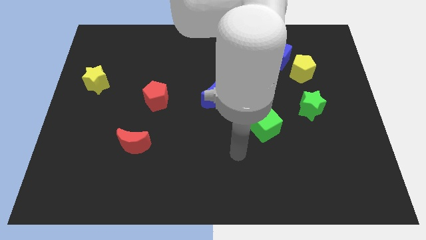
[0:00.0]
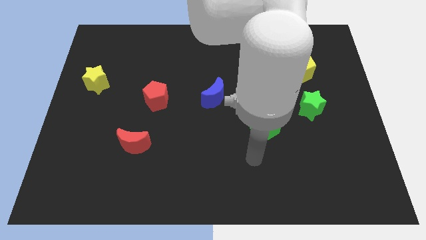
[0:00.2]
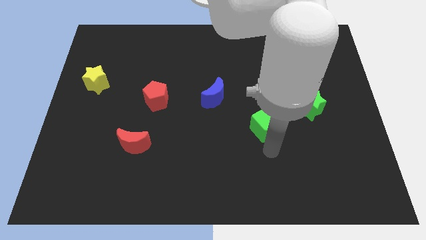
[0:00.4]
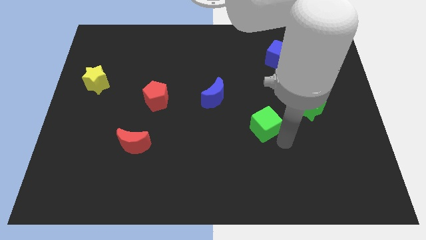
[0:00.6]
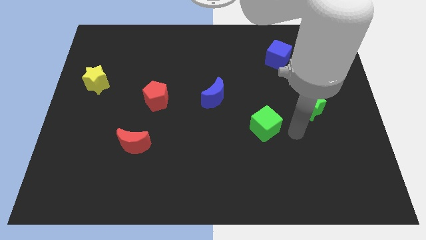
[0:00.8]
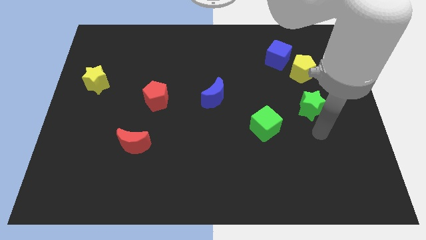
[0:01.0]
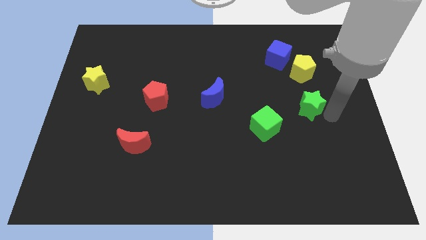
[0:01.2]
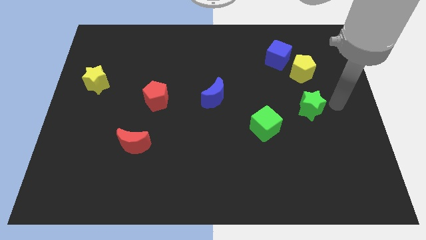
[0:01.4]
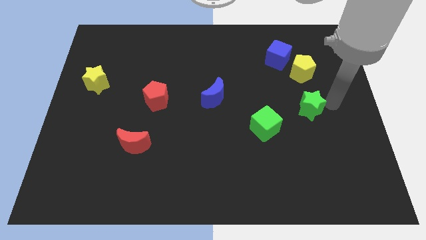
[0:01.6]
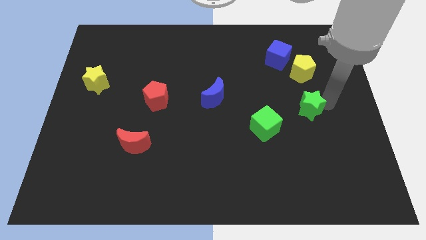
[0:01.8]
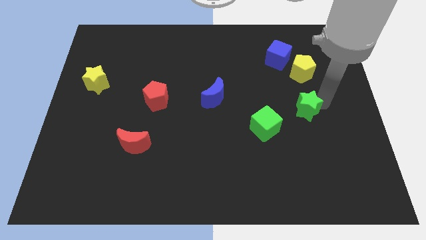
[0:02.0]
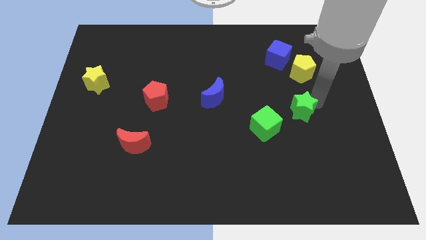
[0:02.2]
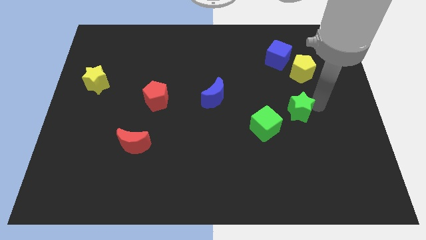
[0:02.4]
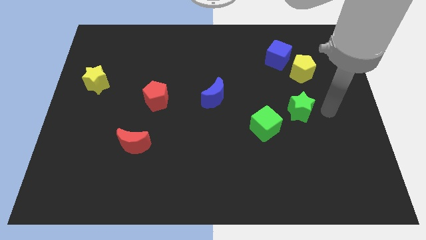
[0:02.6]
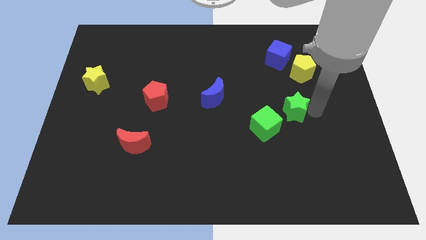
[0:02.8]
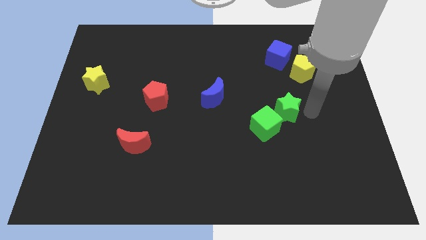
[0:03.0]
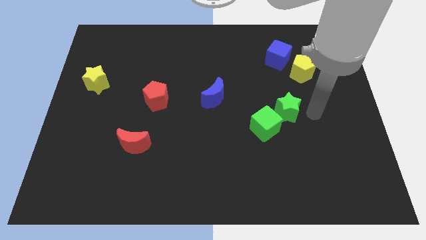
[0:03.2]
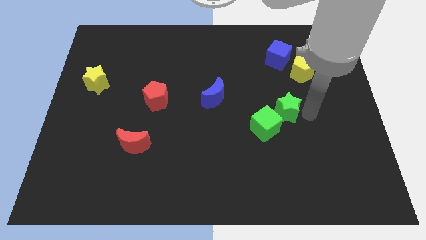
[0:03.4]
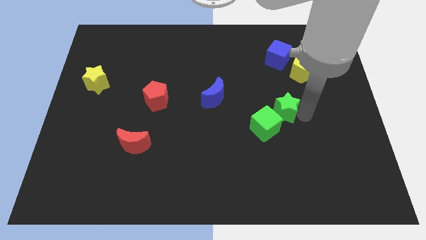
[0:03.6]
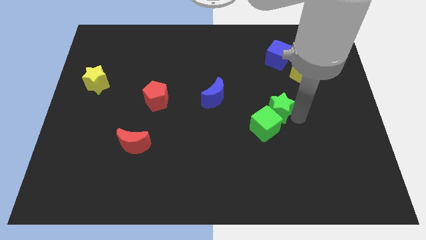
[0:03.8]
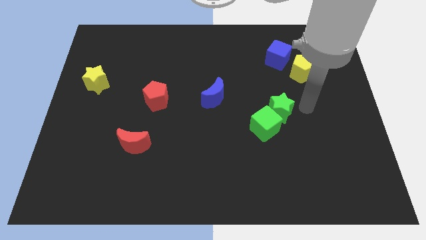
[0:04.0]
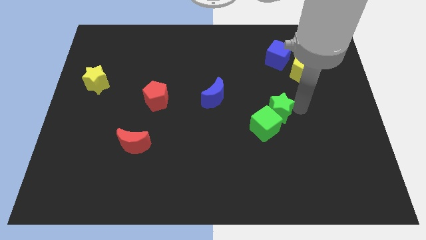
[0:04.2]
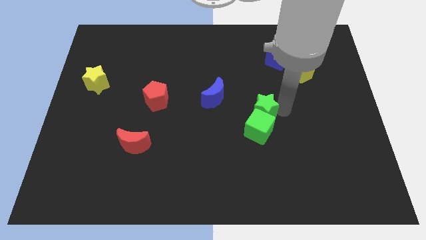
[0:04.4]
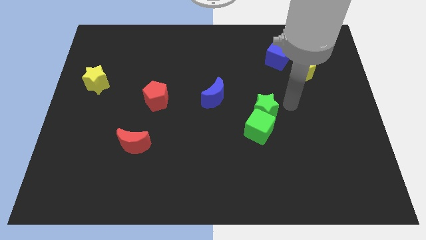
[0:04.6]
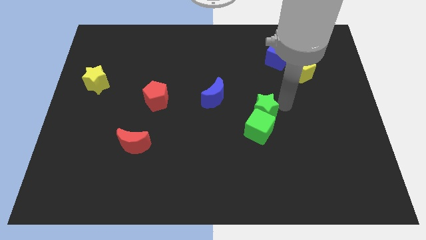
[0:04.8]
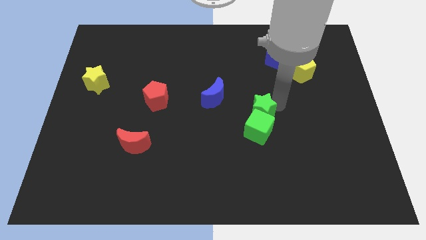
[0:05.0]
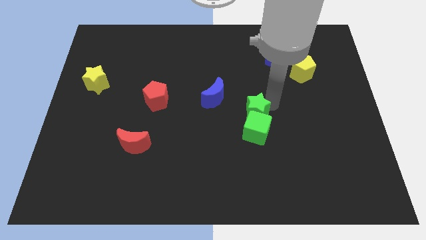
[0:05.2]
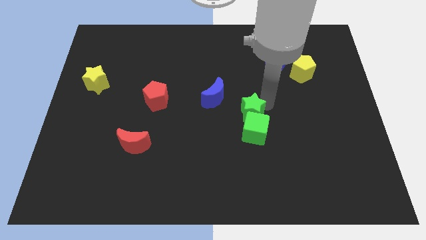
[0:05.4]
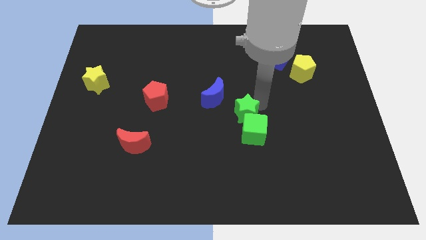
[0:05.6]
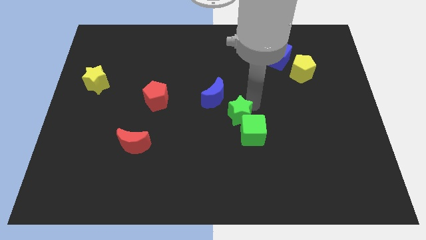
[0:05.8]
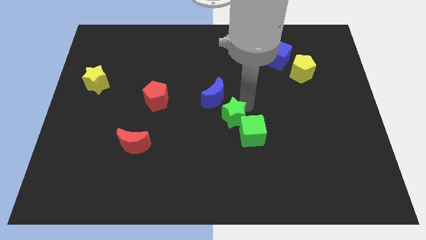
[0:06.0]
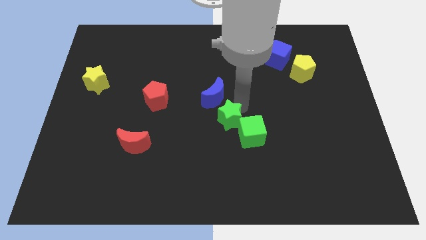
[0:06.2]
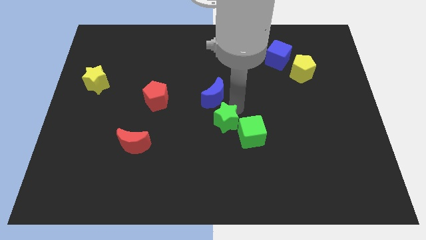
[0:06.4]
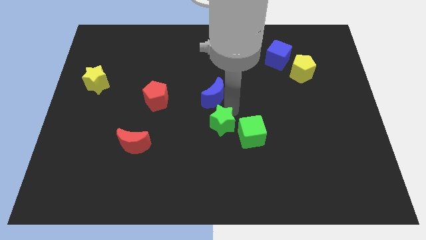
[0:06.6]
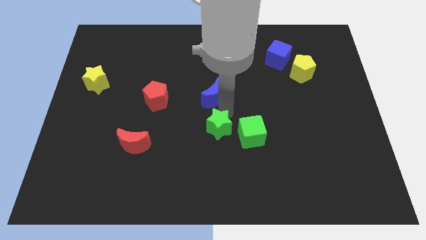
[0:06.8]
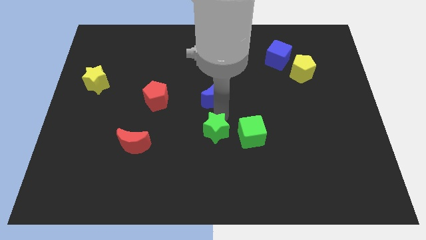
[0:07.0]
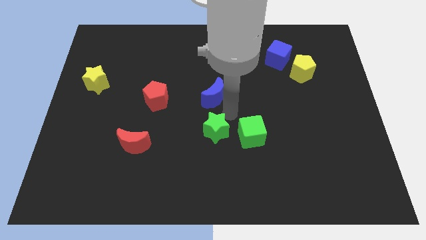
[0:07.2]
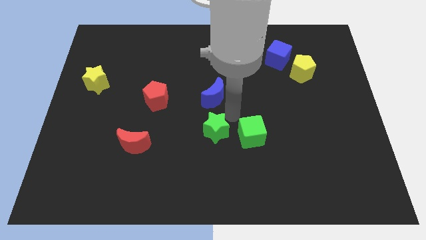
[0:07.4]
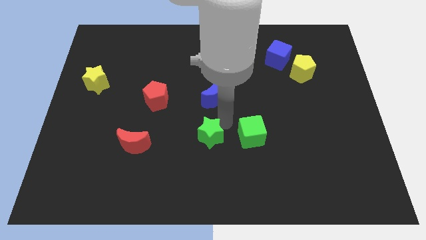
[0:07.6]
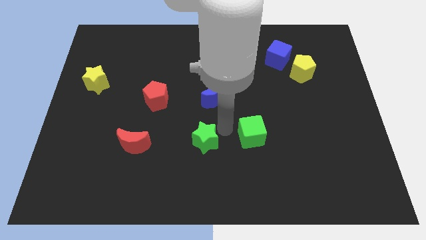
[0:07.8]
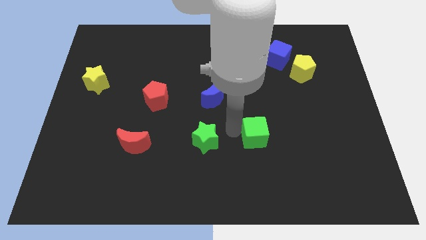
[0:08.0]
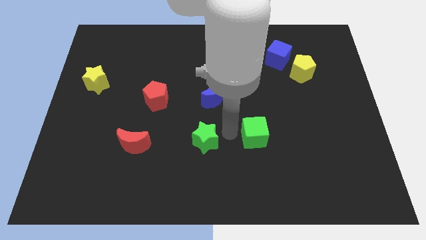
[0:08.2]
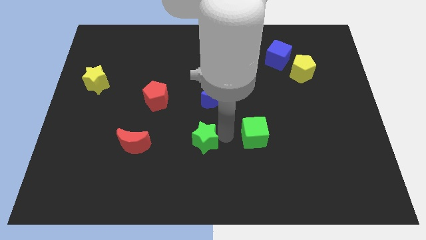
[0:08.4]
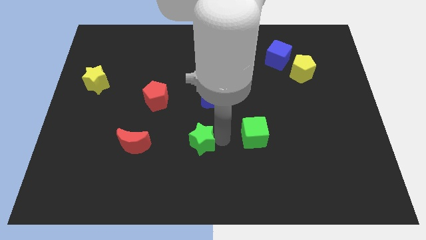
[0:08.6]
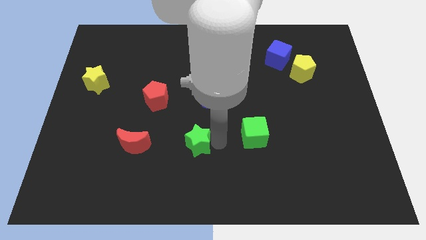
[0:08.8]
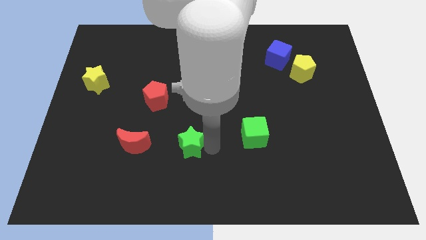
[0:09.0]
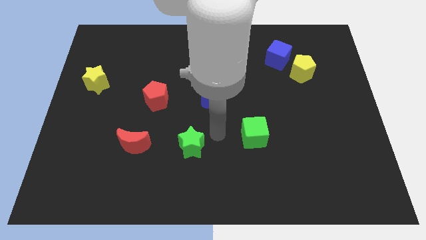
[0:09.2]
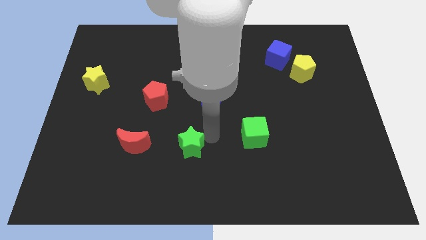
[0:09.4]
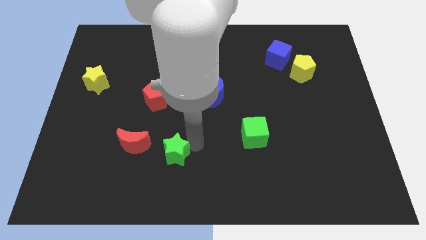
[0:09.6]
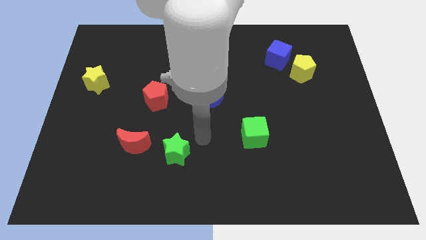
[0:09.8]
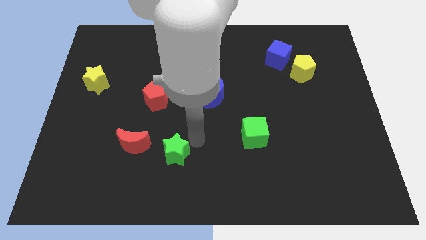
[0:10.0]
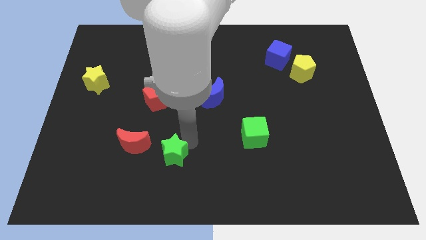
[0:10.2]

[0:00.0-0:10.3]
push the green star diagonally down and to the right of the red moon

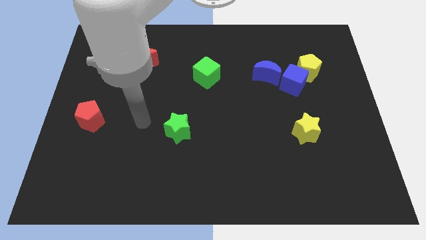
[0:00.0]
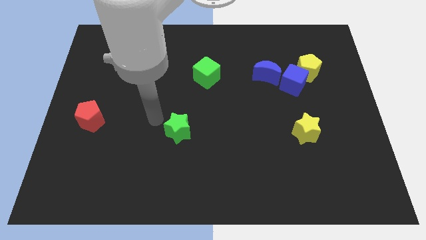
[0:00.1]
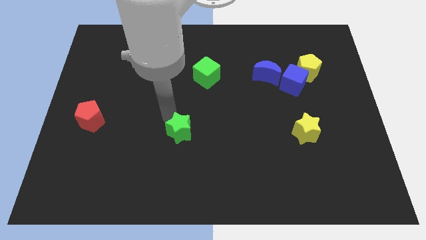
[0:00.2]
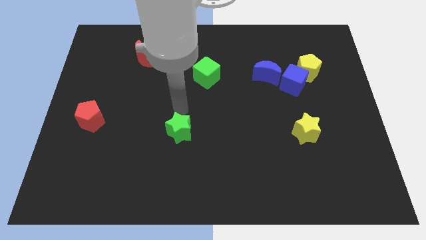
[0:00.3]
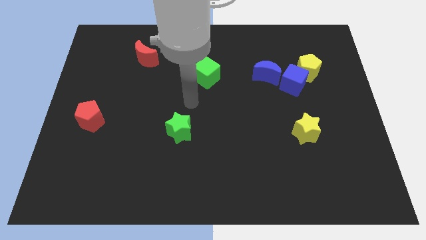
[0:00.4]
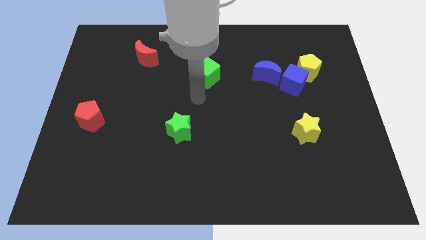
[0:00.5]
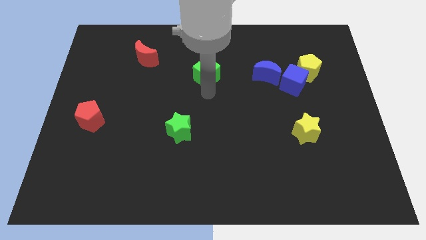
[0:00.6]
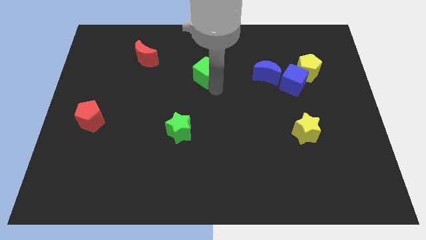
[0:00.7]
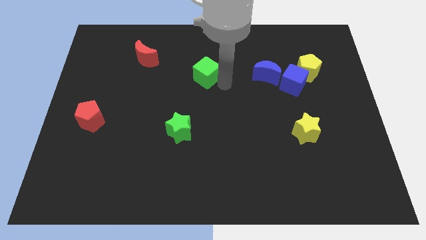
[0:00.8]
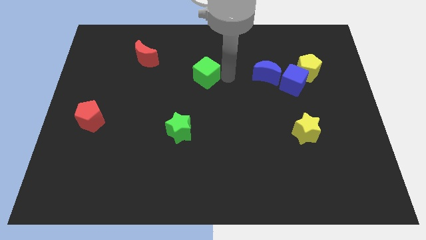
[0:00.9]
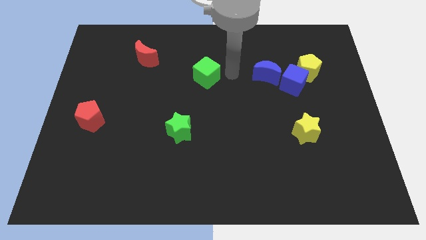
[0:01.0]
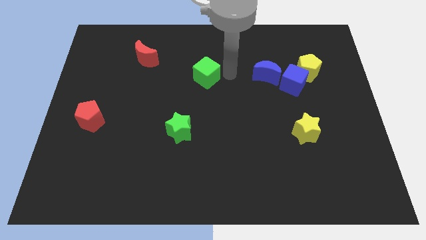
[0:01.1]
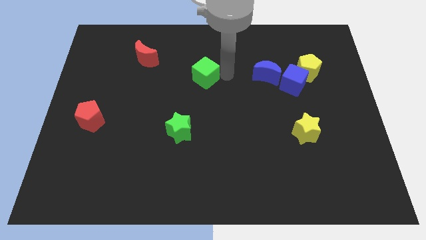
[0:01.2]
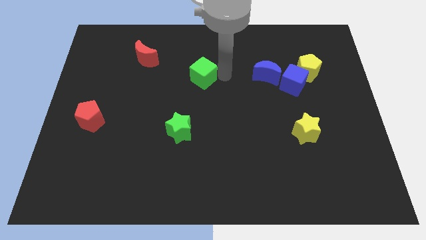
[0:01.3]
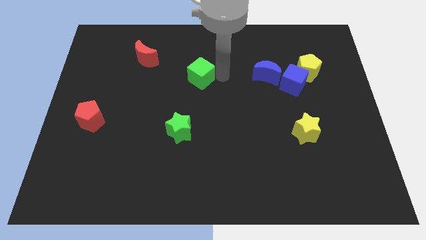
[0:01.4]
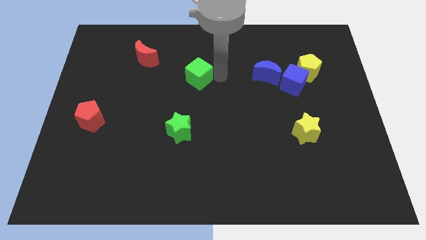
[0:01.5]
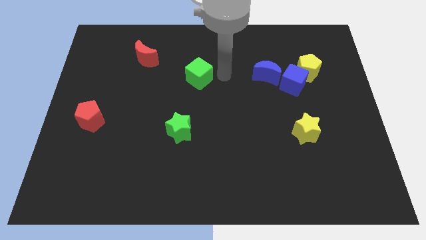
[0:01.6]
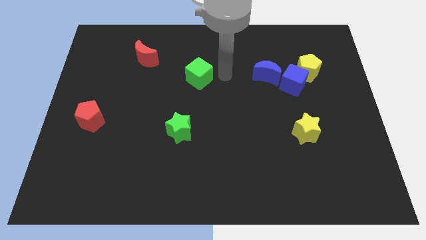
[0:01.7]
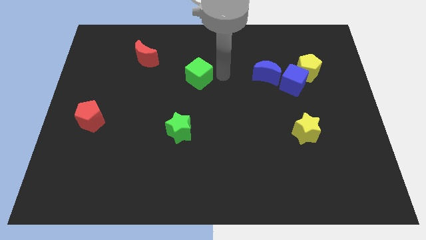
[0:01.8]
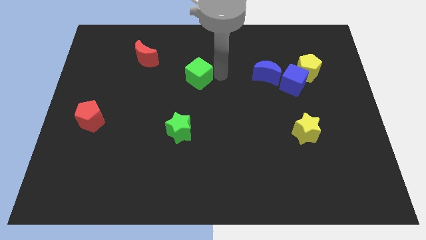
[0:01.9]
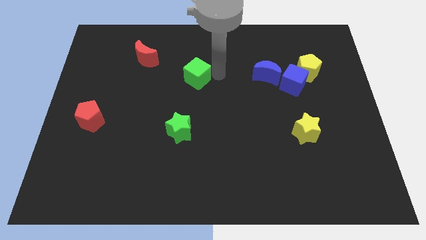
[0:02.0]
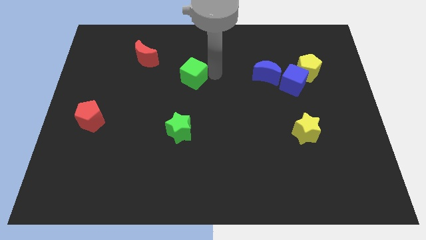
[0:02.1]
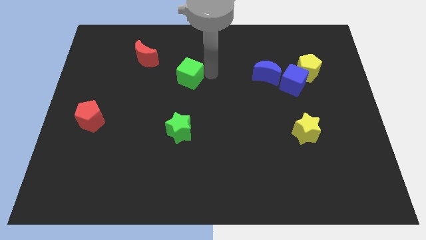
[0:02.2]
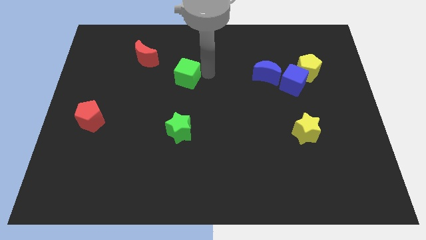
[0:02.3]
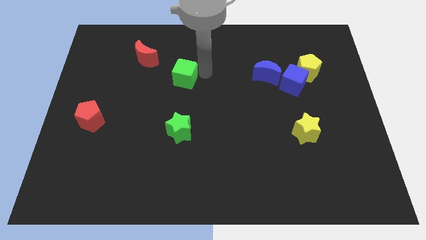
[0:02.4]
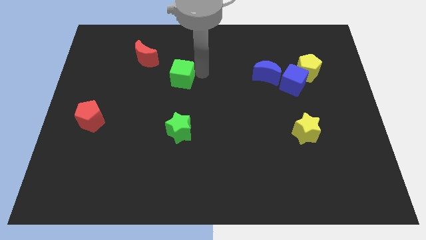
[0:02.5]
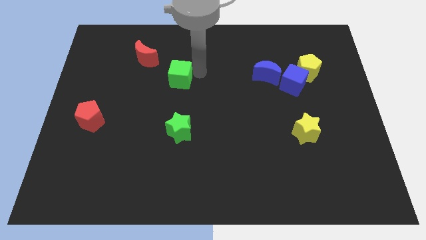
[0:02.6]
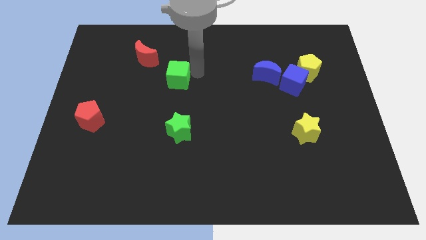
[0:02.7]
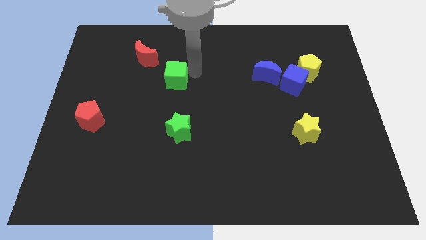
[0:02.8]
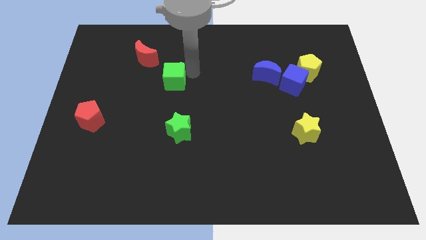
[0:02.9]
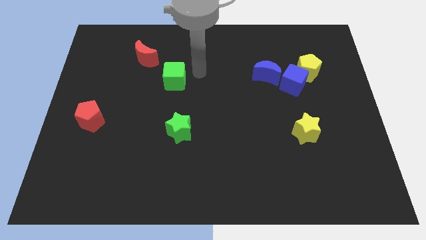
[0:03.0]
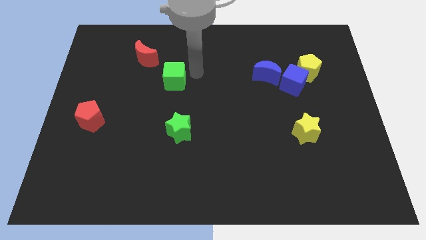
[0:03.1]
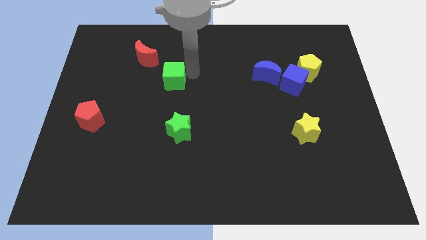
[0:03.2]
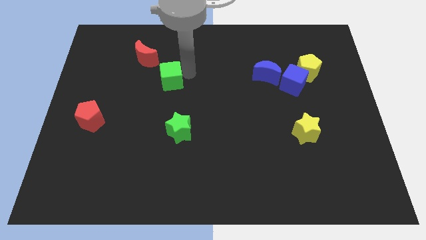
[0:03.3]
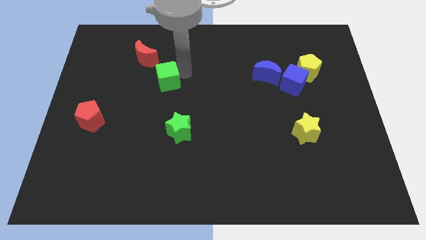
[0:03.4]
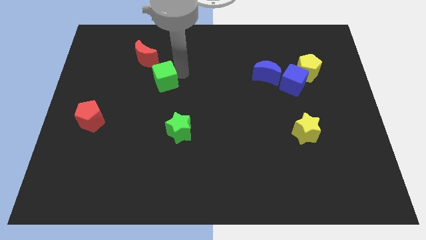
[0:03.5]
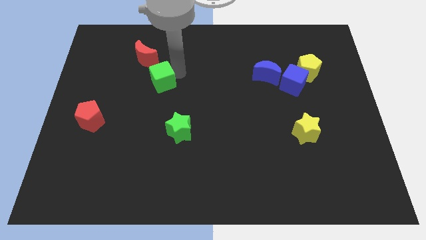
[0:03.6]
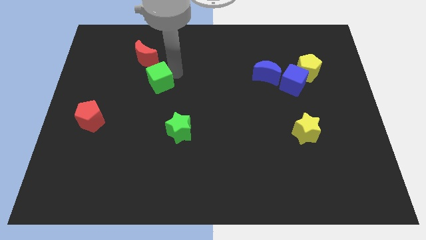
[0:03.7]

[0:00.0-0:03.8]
slide the green cube to the bottom side of the red moon
